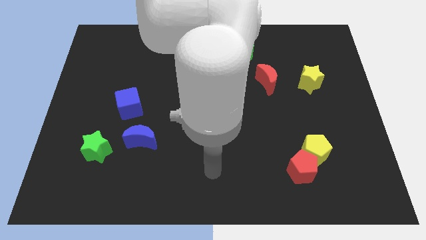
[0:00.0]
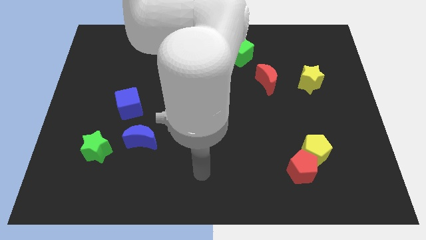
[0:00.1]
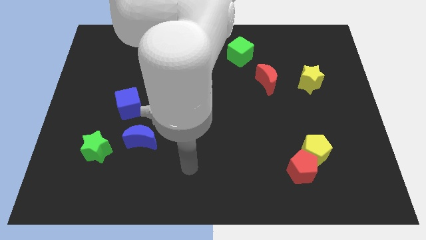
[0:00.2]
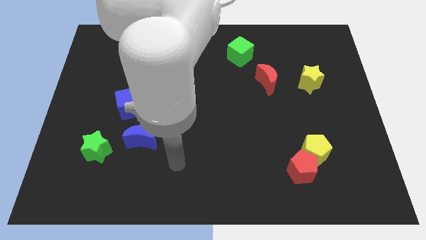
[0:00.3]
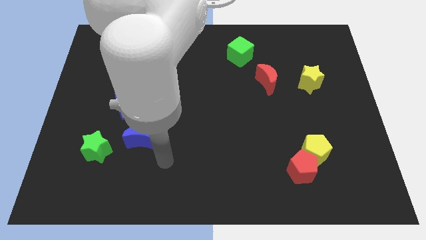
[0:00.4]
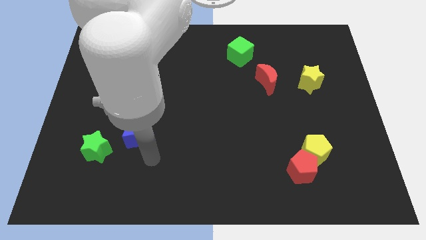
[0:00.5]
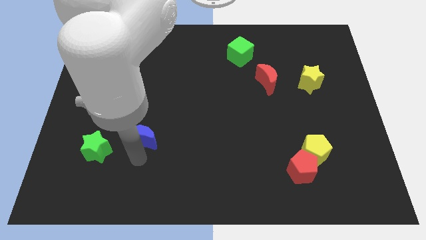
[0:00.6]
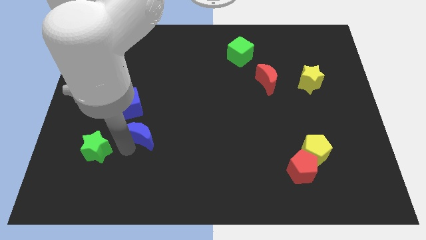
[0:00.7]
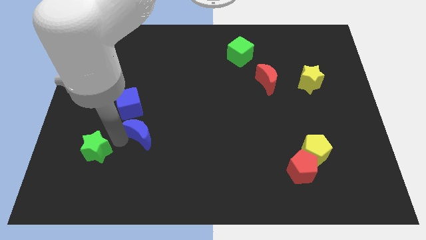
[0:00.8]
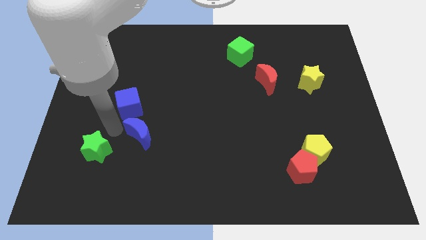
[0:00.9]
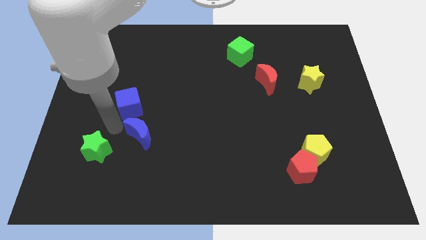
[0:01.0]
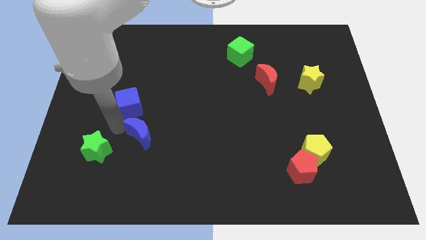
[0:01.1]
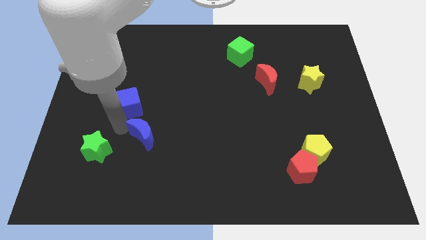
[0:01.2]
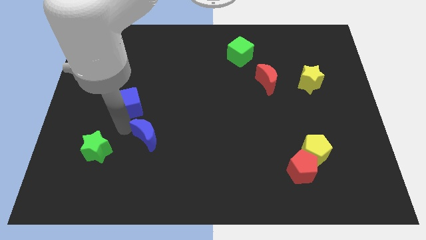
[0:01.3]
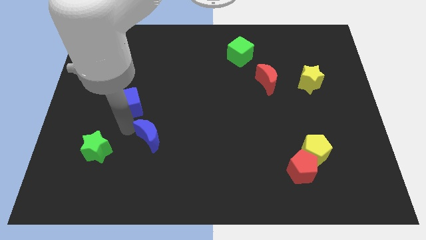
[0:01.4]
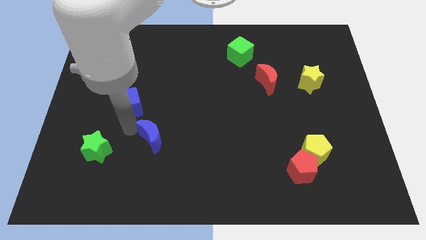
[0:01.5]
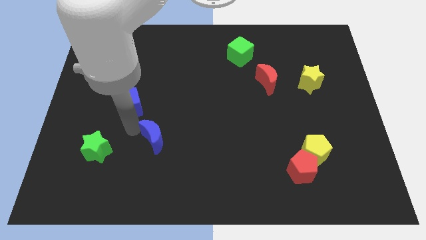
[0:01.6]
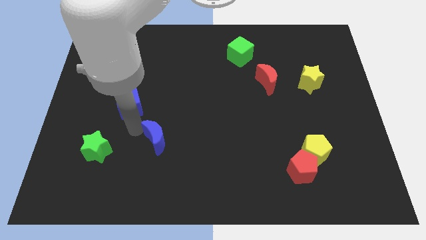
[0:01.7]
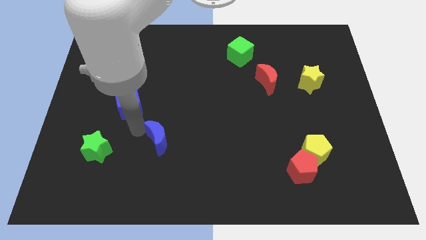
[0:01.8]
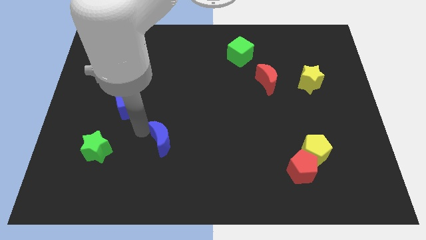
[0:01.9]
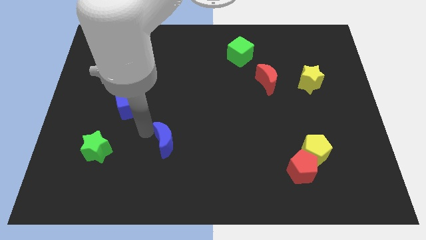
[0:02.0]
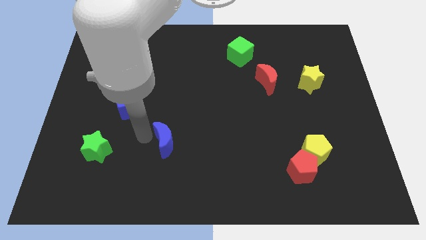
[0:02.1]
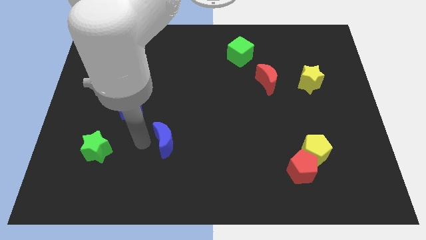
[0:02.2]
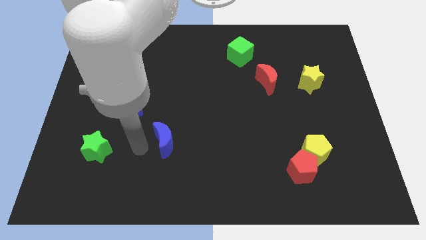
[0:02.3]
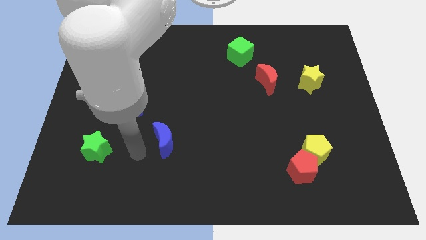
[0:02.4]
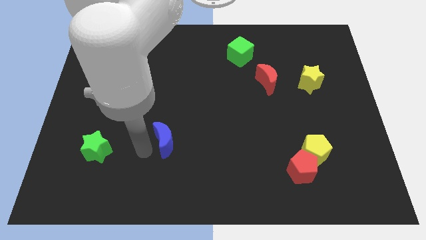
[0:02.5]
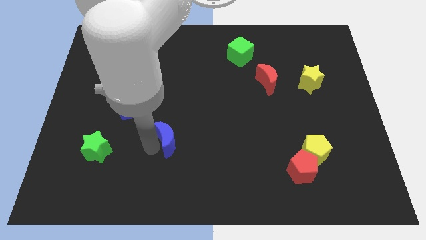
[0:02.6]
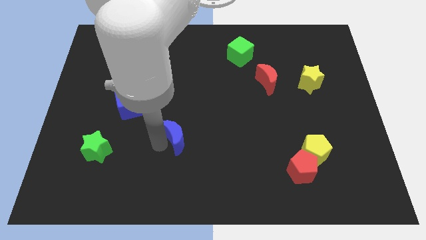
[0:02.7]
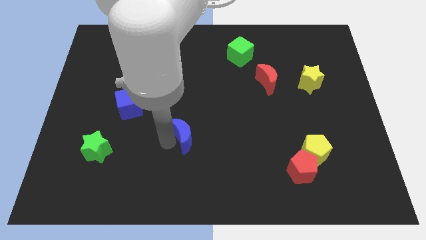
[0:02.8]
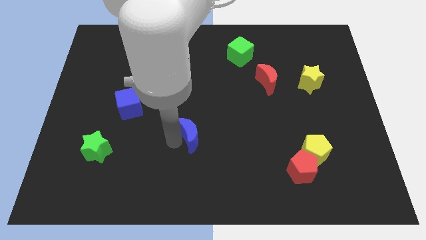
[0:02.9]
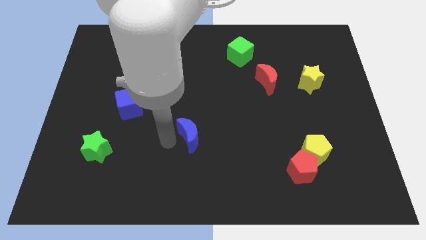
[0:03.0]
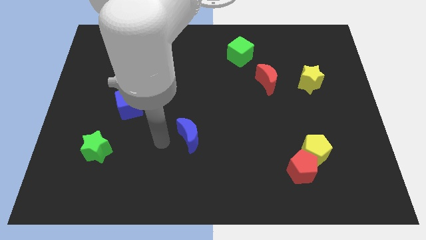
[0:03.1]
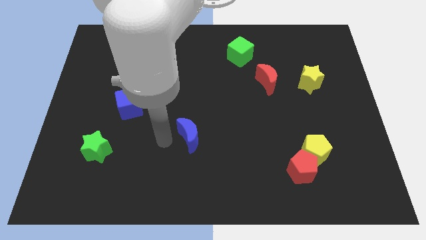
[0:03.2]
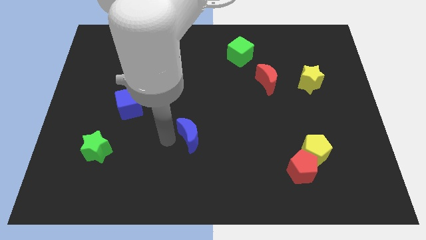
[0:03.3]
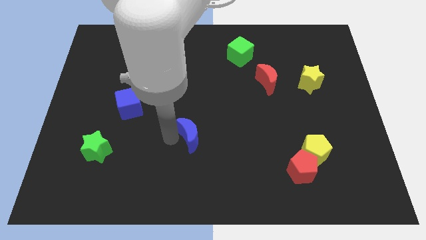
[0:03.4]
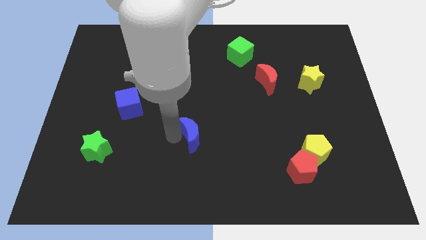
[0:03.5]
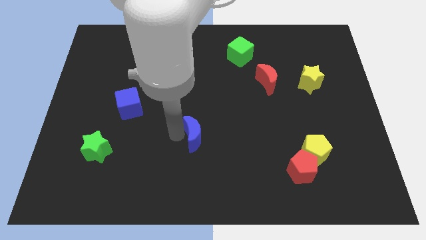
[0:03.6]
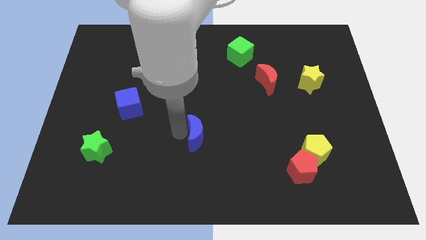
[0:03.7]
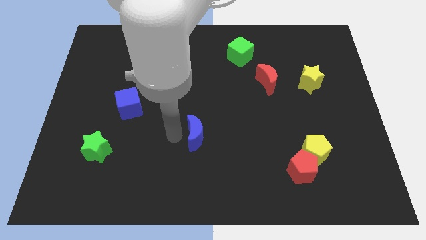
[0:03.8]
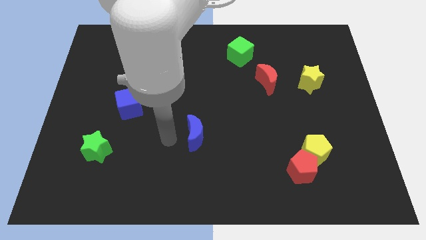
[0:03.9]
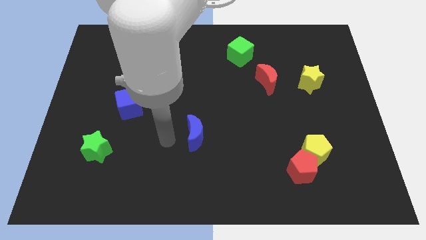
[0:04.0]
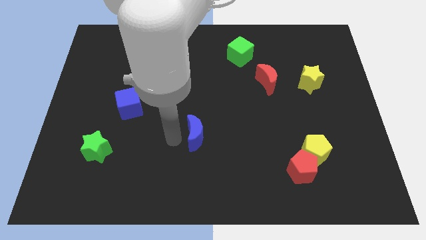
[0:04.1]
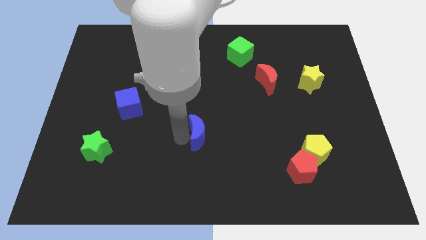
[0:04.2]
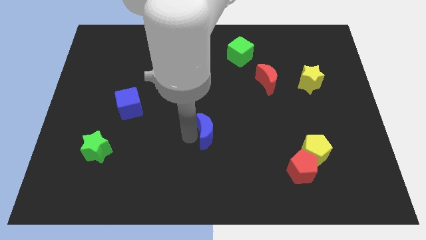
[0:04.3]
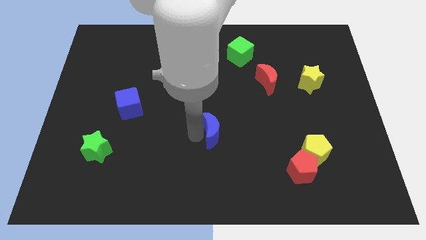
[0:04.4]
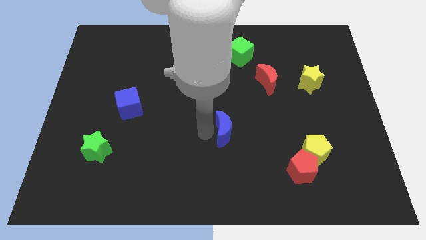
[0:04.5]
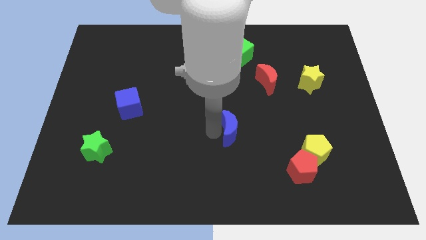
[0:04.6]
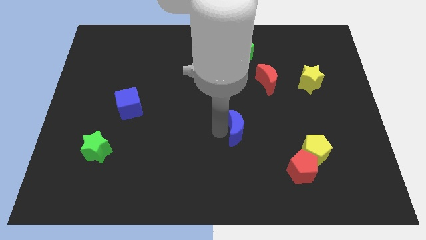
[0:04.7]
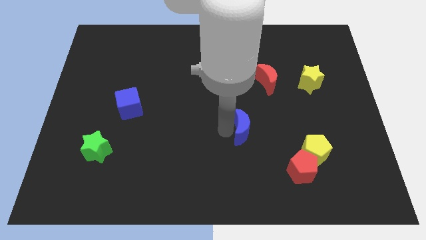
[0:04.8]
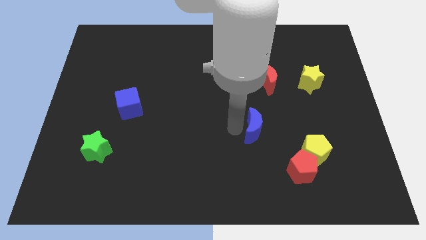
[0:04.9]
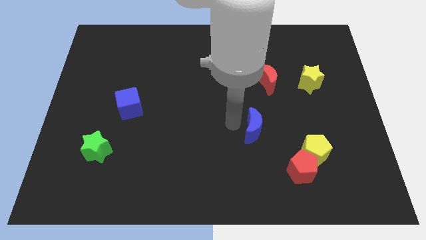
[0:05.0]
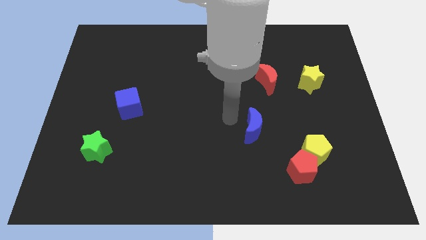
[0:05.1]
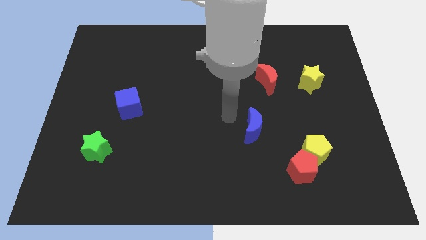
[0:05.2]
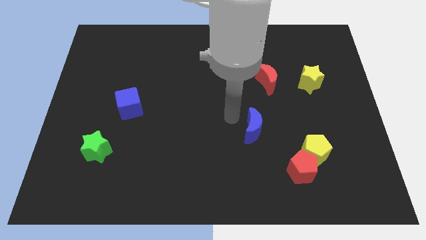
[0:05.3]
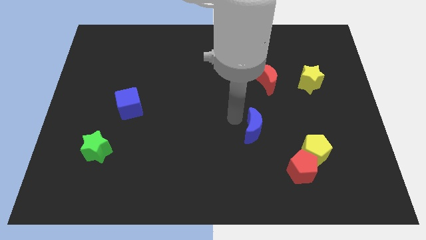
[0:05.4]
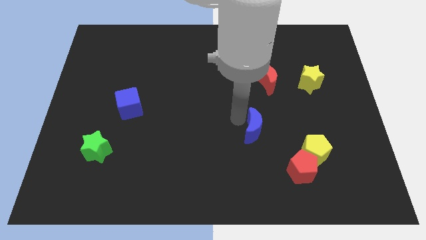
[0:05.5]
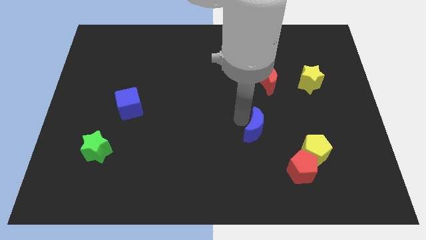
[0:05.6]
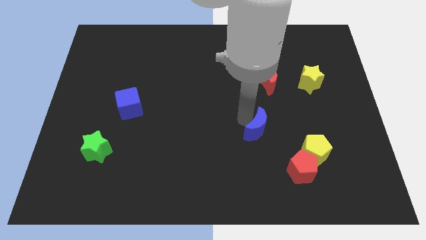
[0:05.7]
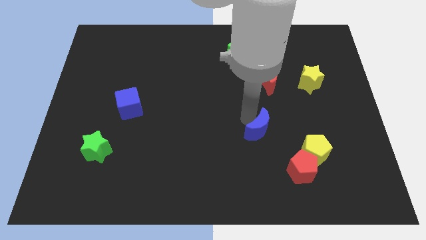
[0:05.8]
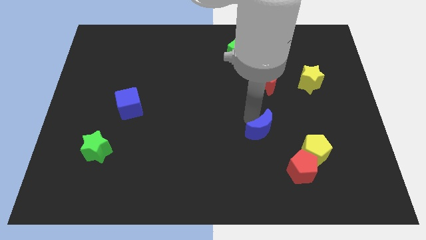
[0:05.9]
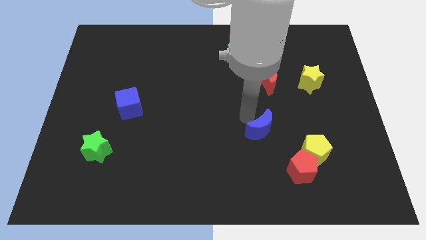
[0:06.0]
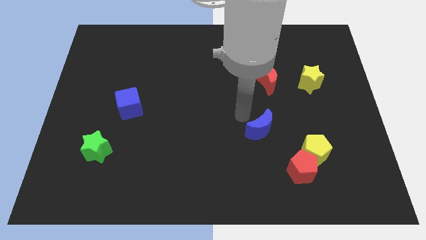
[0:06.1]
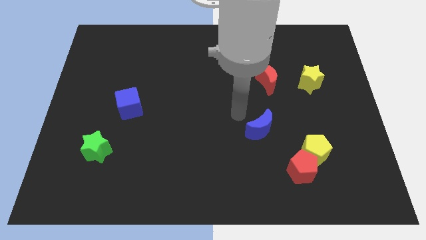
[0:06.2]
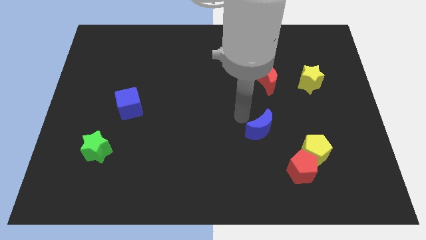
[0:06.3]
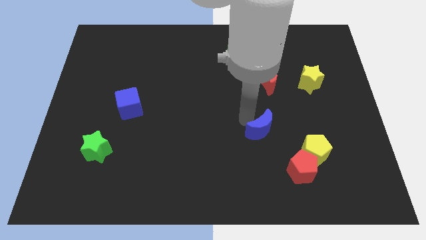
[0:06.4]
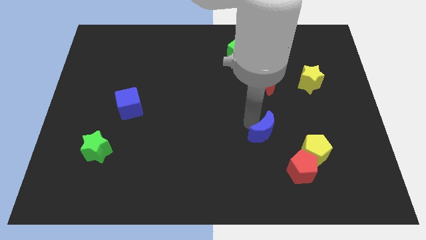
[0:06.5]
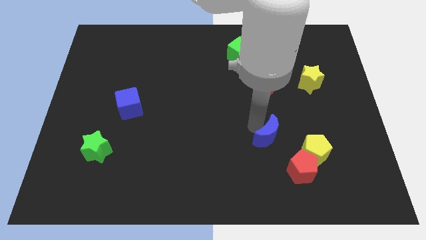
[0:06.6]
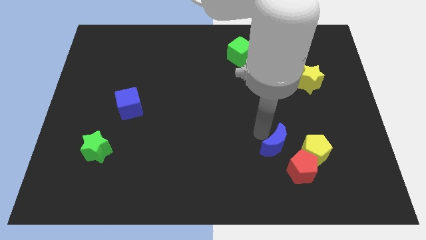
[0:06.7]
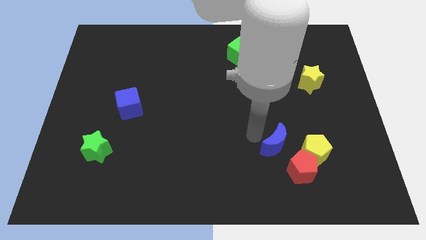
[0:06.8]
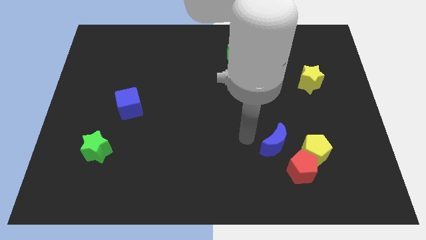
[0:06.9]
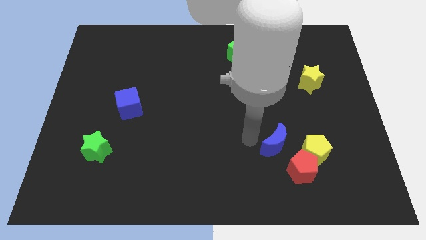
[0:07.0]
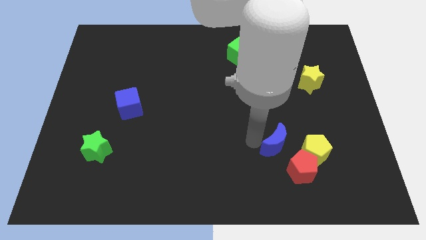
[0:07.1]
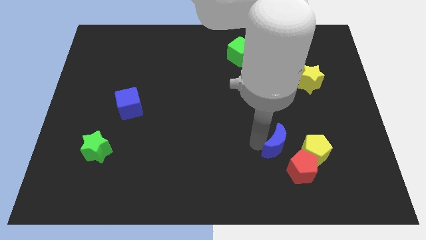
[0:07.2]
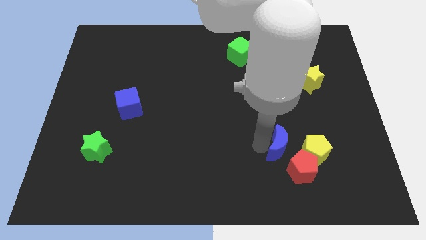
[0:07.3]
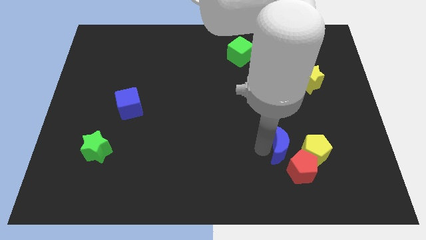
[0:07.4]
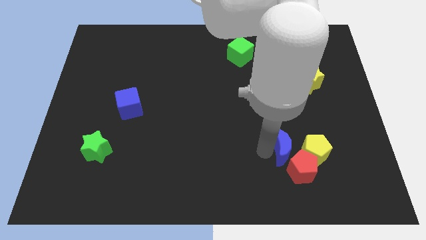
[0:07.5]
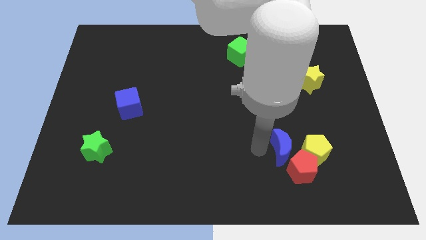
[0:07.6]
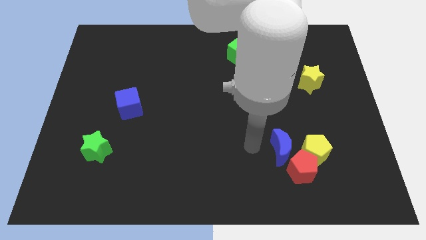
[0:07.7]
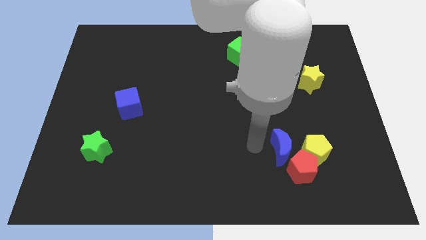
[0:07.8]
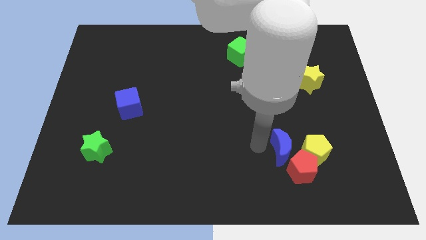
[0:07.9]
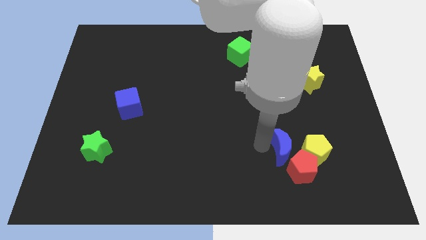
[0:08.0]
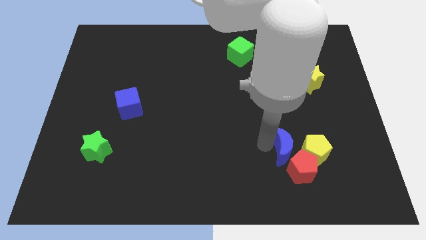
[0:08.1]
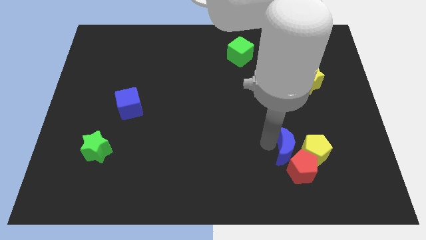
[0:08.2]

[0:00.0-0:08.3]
push the blue moon to the yellow pentagon
